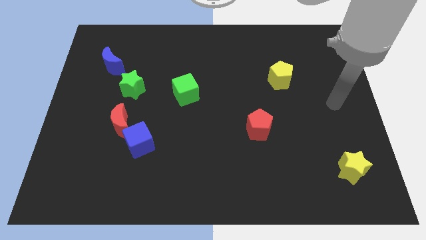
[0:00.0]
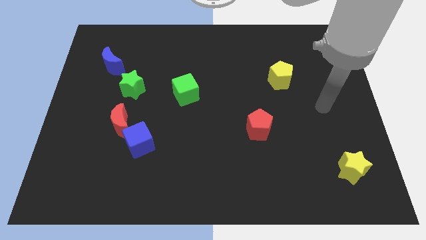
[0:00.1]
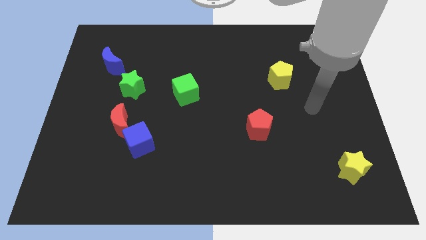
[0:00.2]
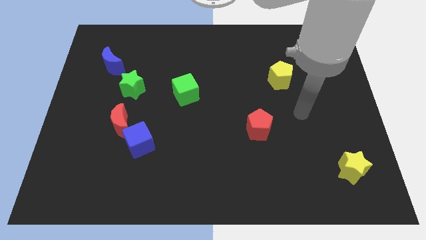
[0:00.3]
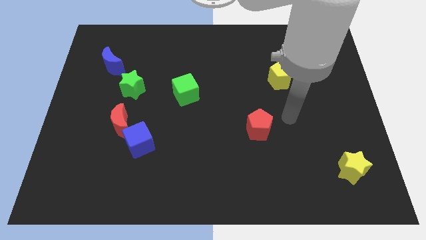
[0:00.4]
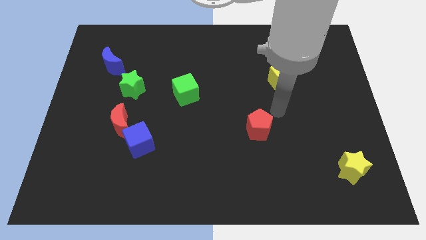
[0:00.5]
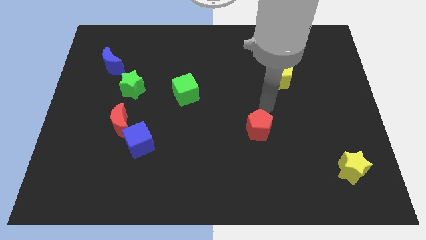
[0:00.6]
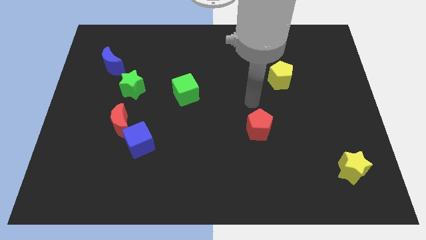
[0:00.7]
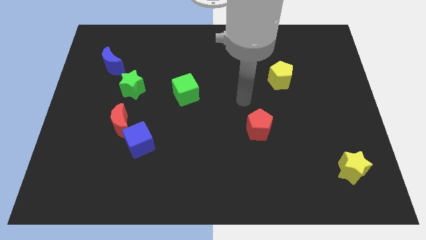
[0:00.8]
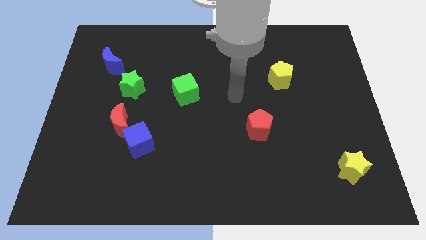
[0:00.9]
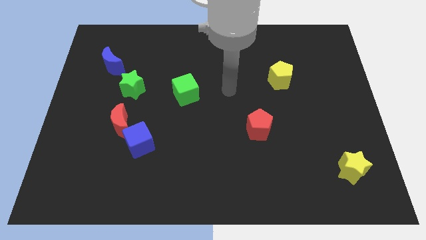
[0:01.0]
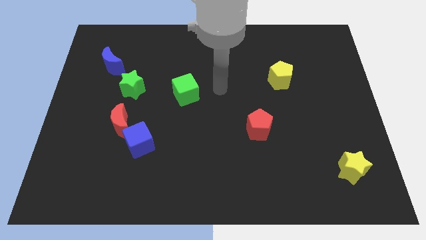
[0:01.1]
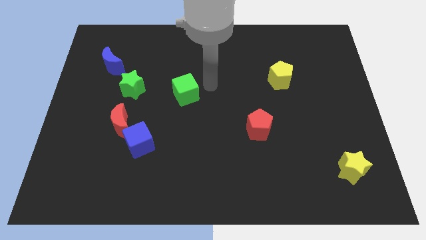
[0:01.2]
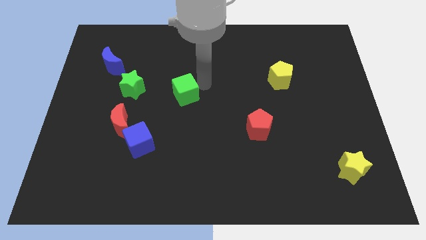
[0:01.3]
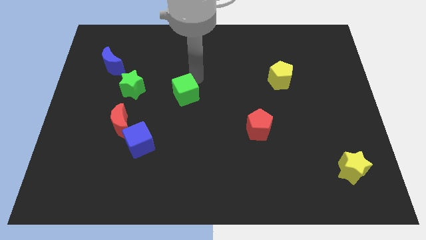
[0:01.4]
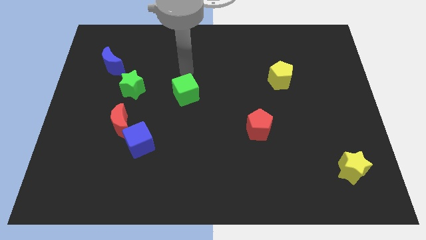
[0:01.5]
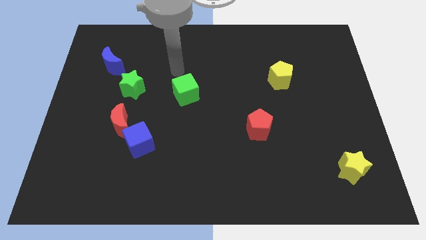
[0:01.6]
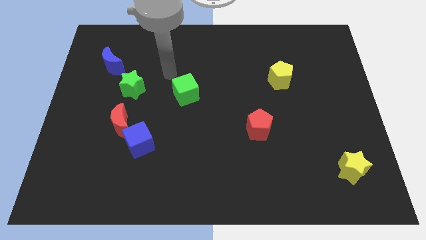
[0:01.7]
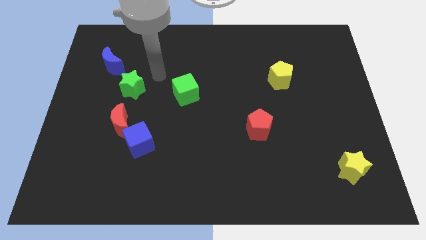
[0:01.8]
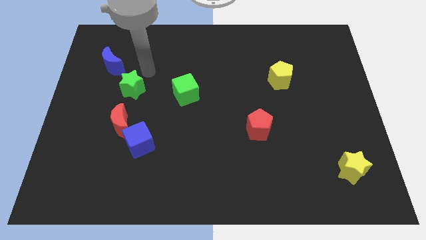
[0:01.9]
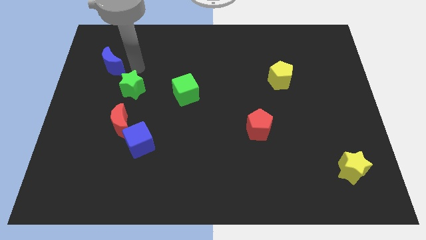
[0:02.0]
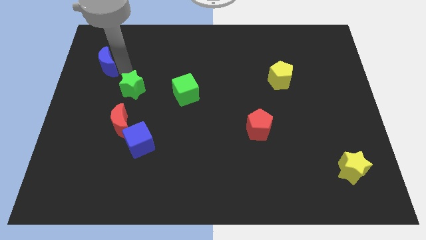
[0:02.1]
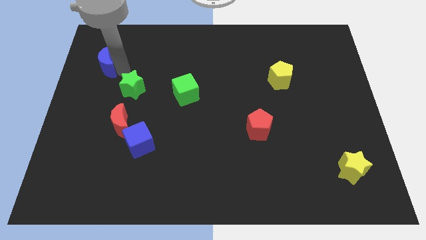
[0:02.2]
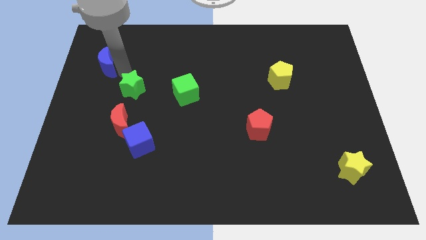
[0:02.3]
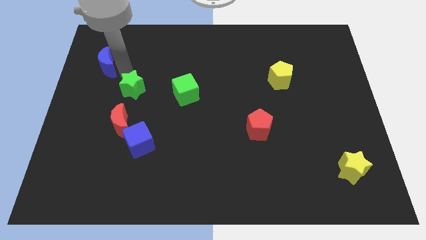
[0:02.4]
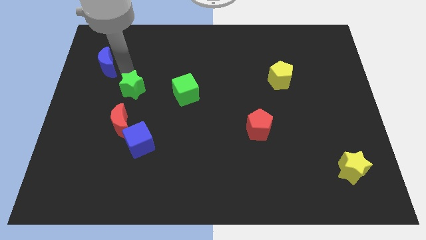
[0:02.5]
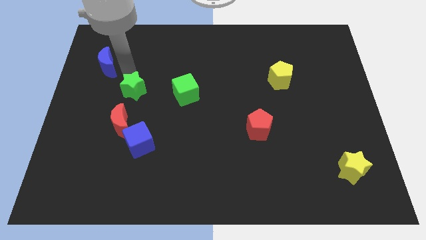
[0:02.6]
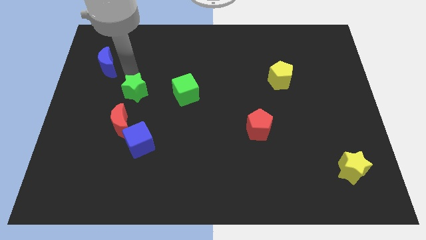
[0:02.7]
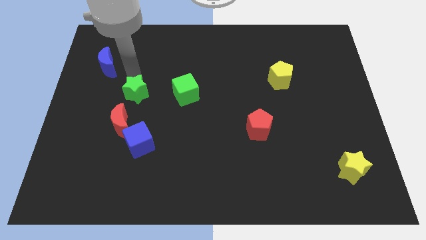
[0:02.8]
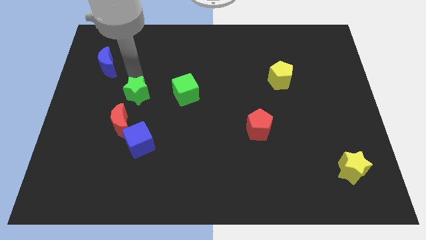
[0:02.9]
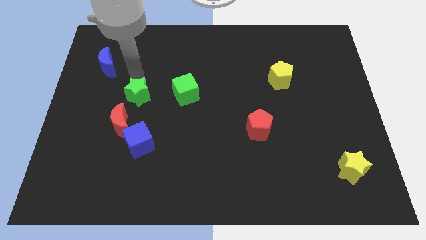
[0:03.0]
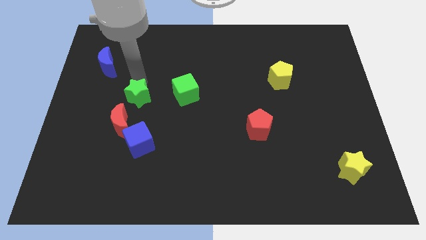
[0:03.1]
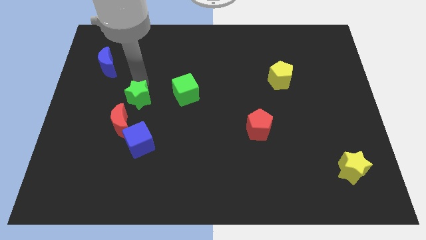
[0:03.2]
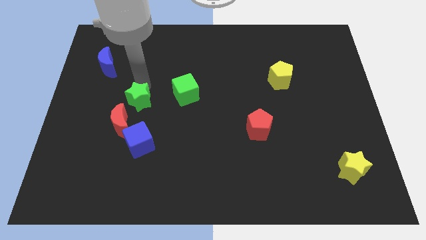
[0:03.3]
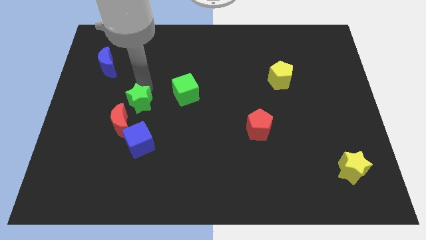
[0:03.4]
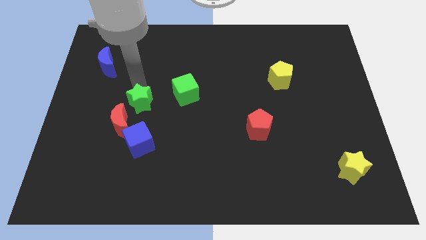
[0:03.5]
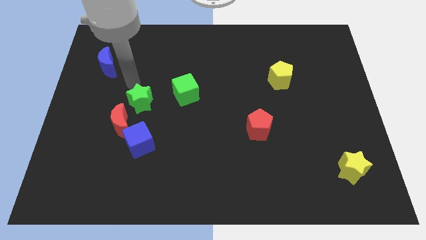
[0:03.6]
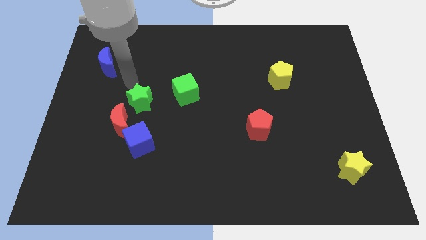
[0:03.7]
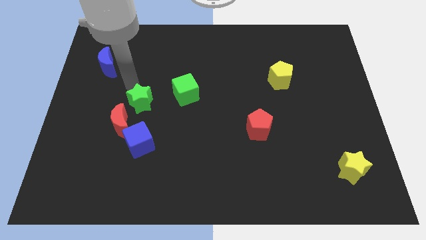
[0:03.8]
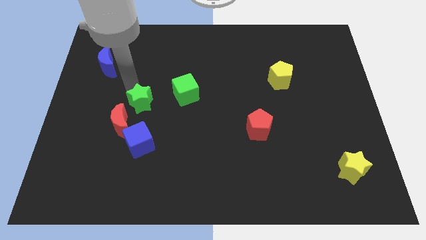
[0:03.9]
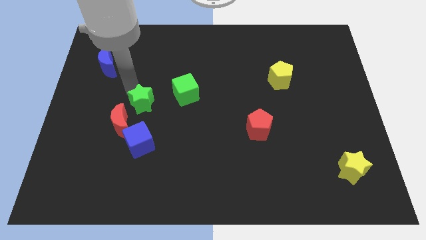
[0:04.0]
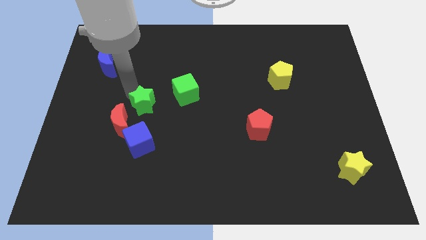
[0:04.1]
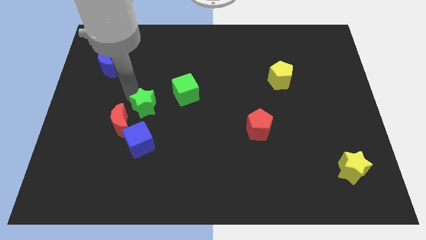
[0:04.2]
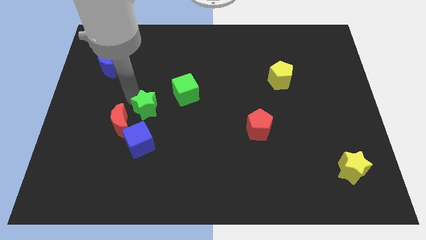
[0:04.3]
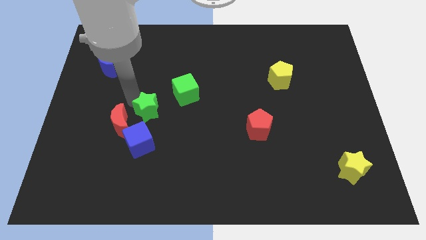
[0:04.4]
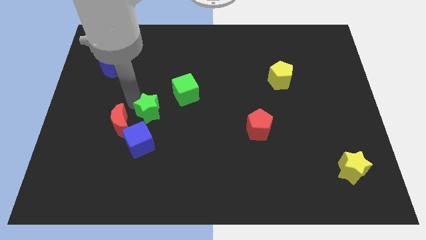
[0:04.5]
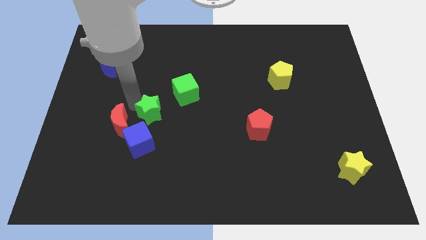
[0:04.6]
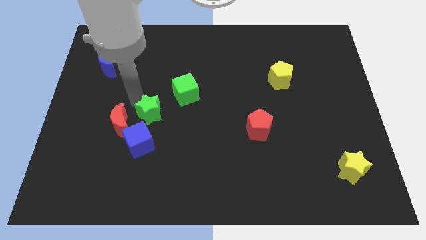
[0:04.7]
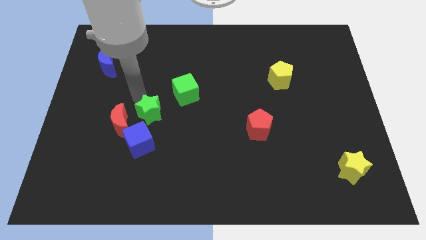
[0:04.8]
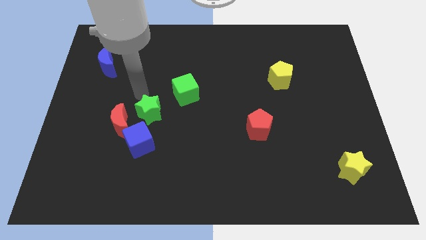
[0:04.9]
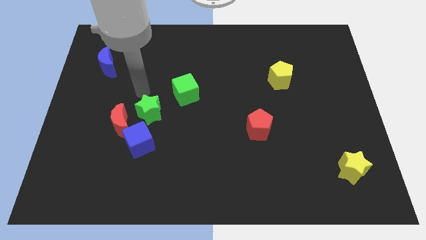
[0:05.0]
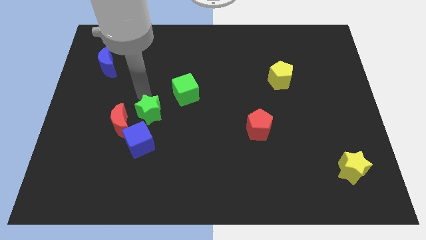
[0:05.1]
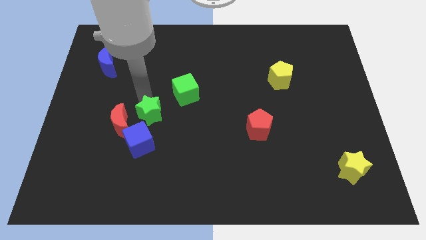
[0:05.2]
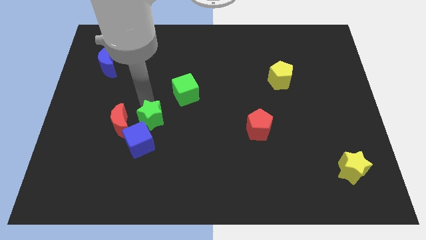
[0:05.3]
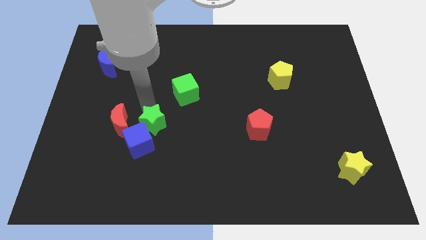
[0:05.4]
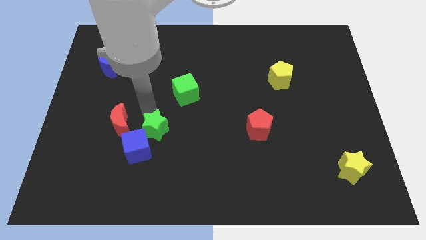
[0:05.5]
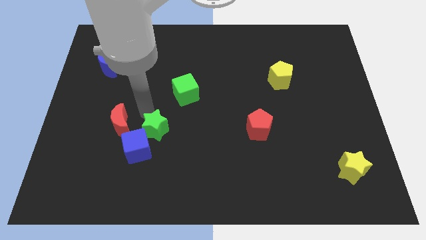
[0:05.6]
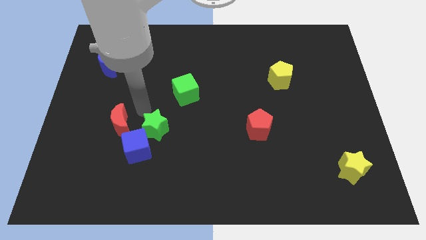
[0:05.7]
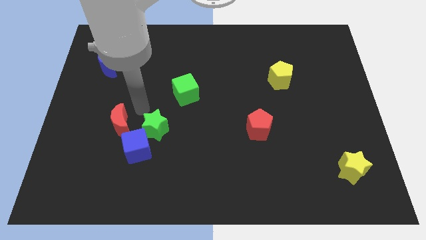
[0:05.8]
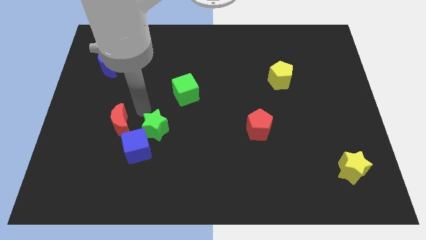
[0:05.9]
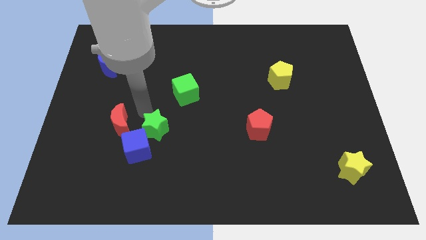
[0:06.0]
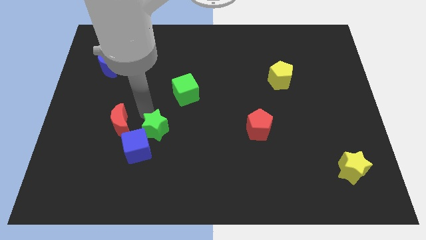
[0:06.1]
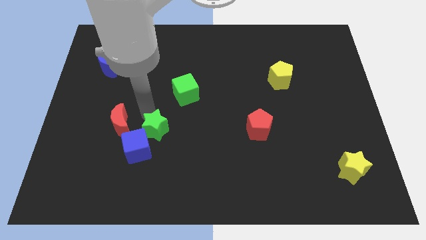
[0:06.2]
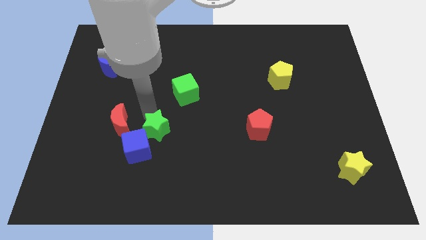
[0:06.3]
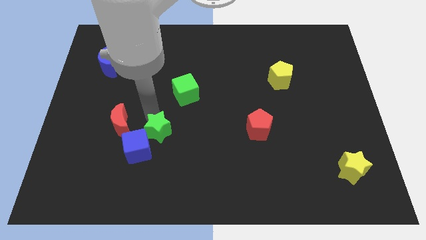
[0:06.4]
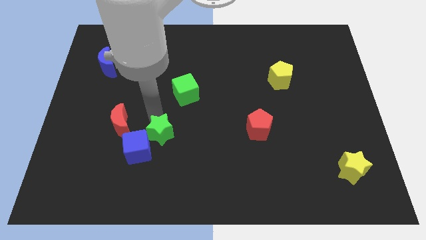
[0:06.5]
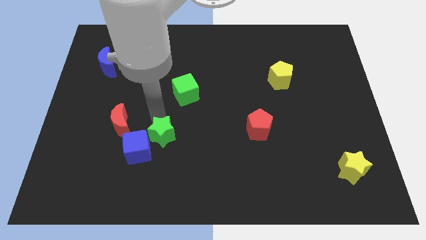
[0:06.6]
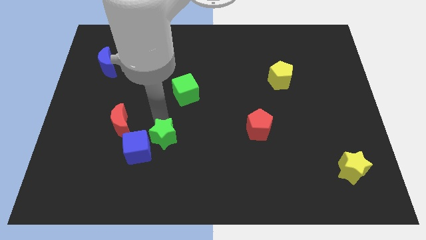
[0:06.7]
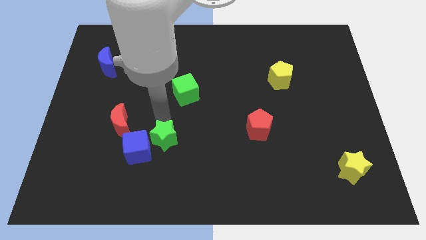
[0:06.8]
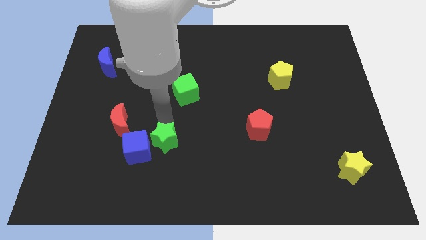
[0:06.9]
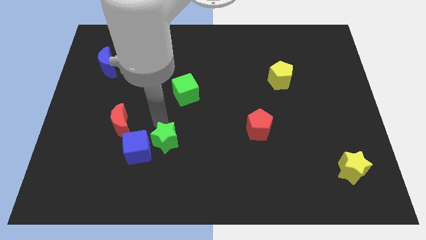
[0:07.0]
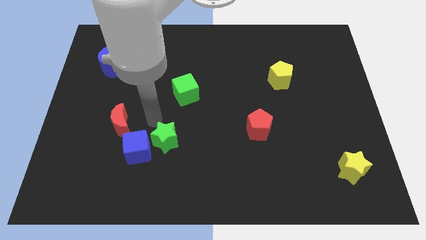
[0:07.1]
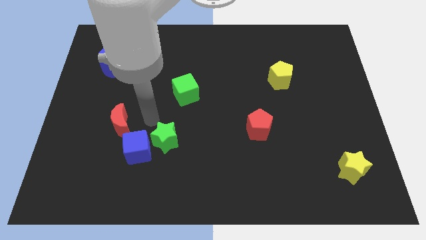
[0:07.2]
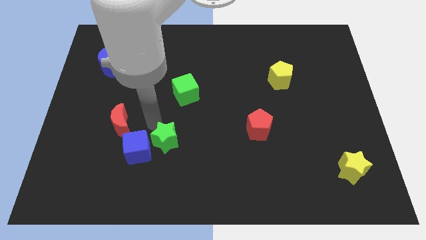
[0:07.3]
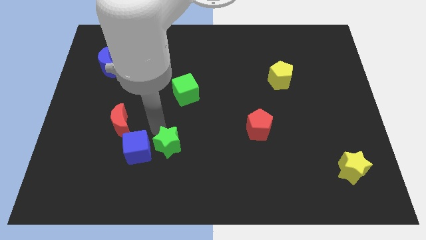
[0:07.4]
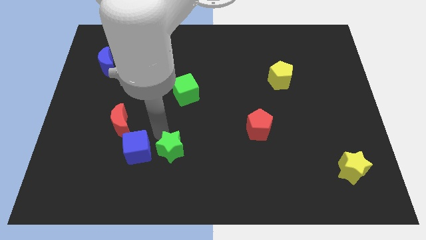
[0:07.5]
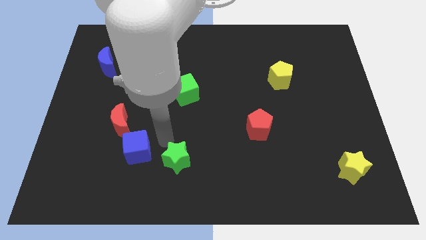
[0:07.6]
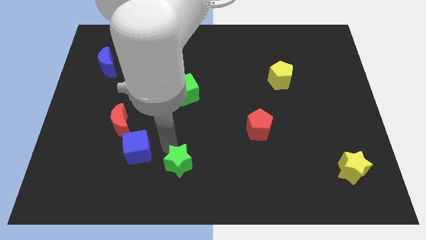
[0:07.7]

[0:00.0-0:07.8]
move the green star to the bottom

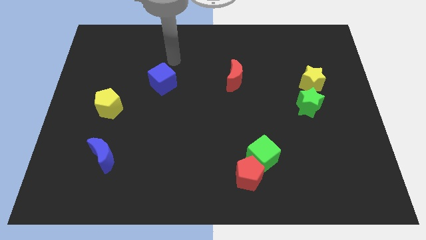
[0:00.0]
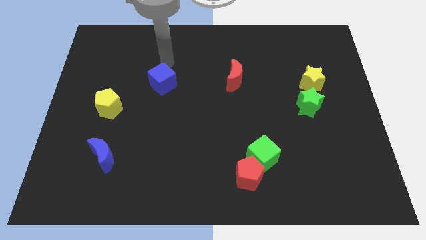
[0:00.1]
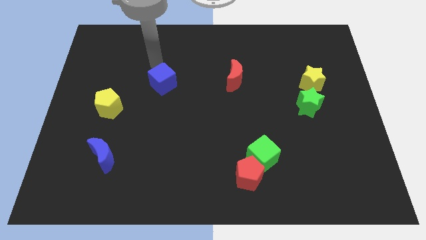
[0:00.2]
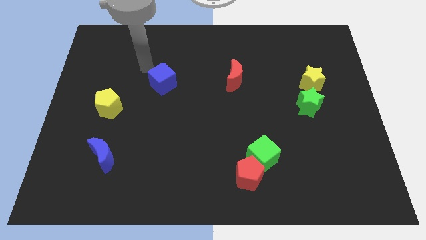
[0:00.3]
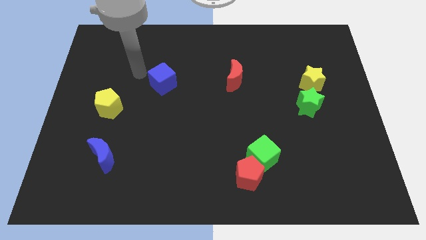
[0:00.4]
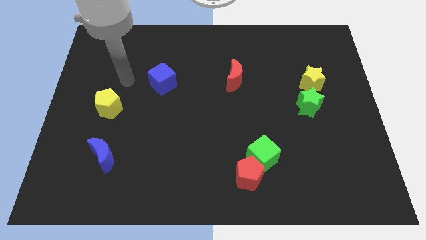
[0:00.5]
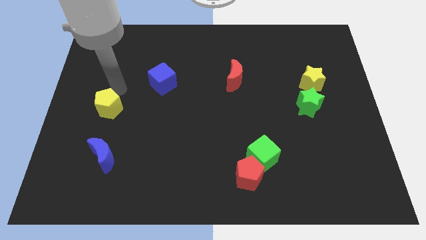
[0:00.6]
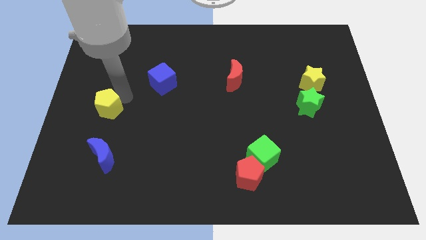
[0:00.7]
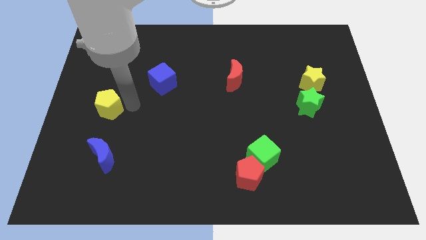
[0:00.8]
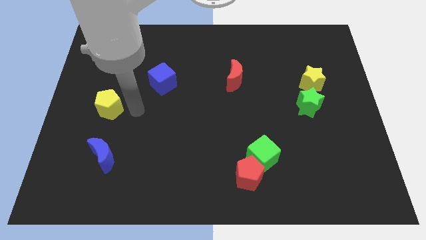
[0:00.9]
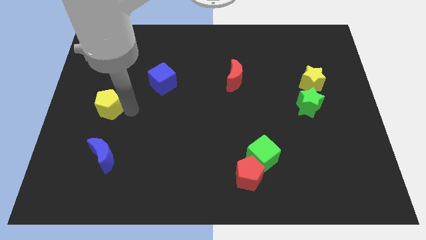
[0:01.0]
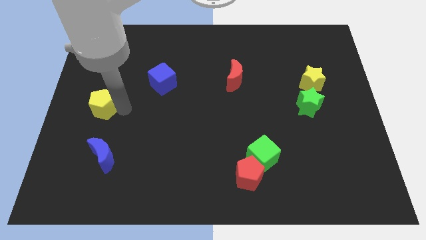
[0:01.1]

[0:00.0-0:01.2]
move the yellow pentagon to the center left
